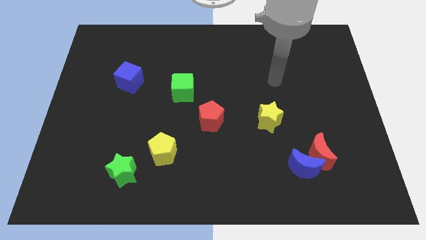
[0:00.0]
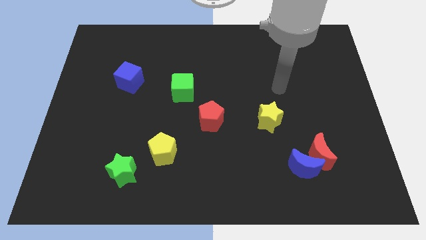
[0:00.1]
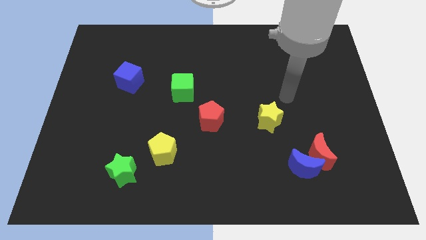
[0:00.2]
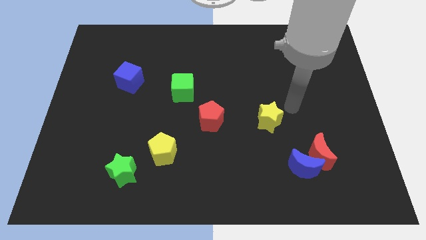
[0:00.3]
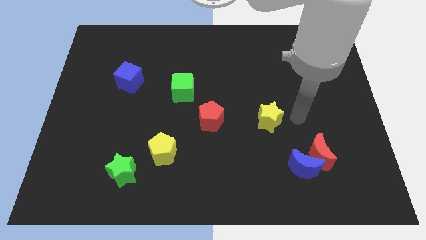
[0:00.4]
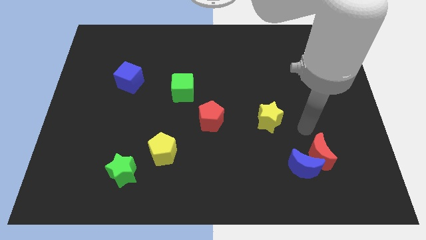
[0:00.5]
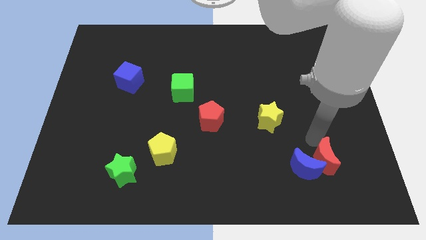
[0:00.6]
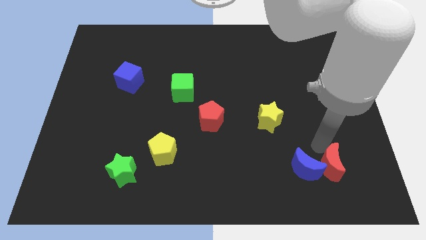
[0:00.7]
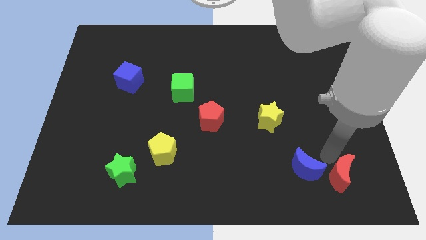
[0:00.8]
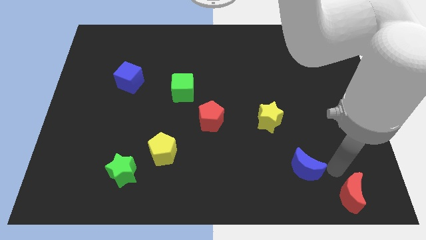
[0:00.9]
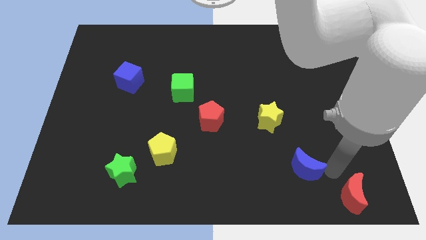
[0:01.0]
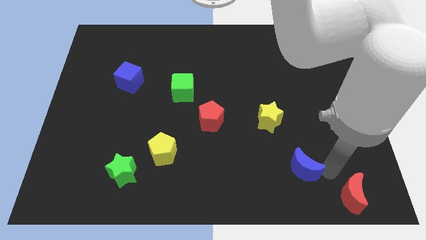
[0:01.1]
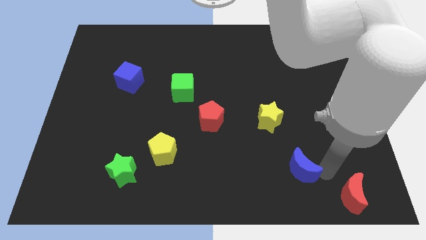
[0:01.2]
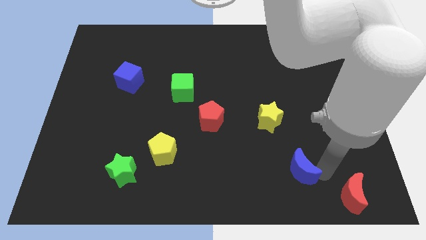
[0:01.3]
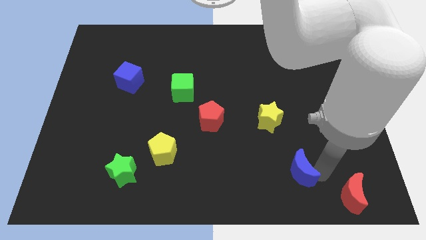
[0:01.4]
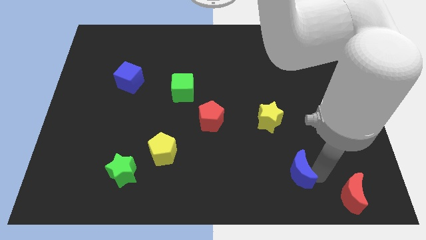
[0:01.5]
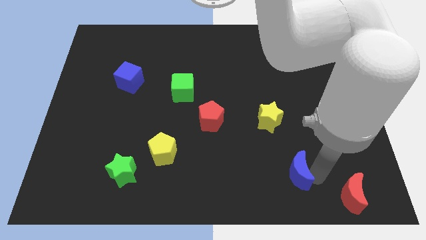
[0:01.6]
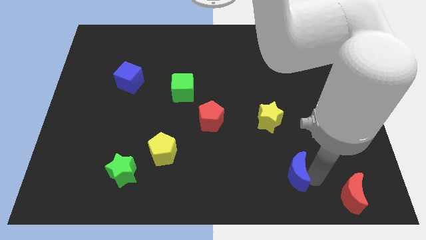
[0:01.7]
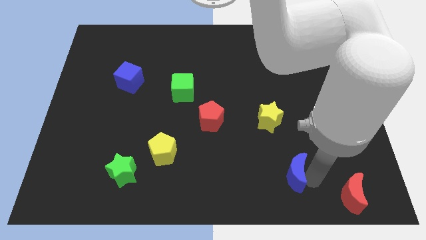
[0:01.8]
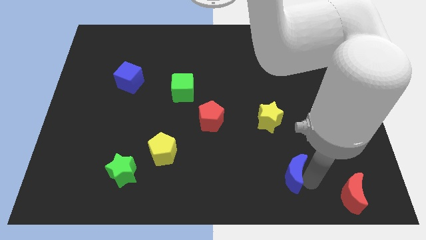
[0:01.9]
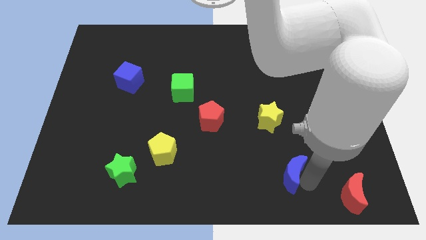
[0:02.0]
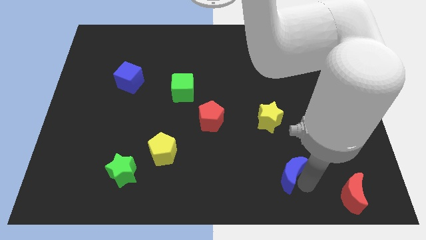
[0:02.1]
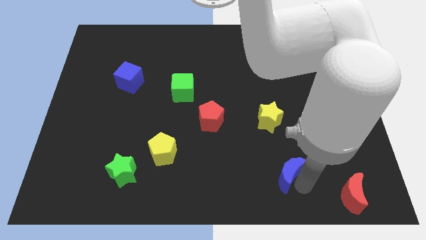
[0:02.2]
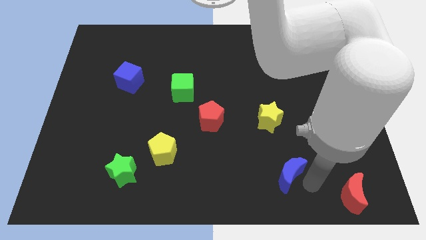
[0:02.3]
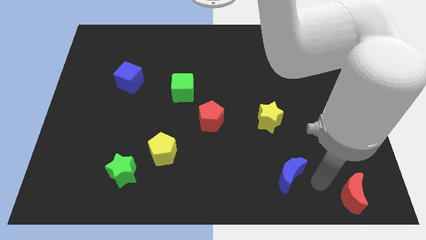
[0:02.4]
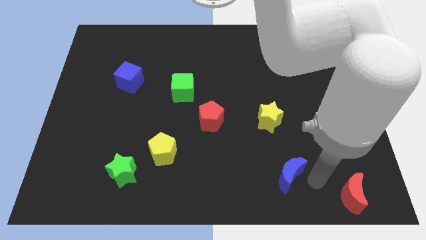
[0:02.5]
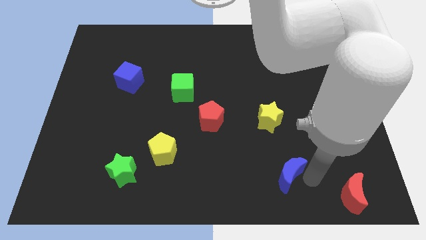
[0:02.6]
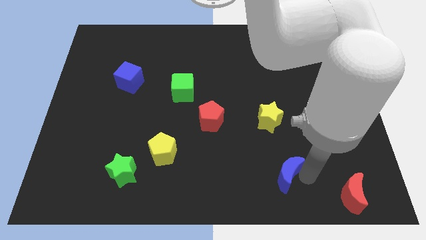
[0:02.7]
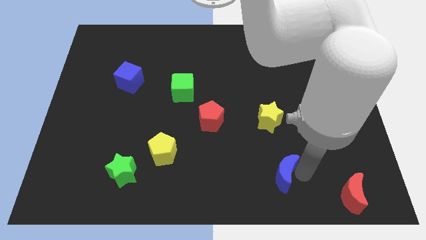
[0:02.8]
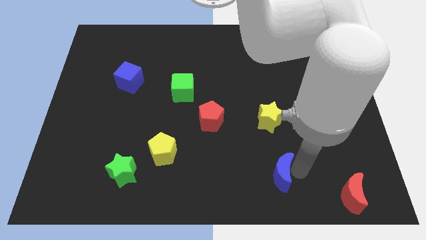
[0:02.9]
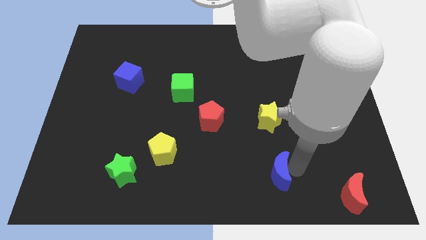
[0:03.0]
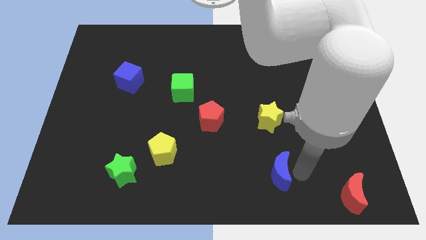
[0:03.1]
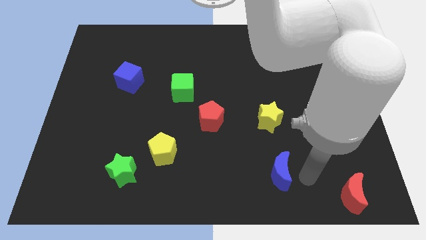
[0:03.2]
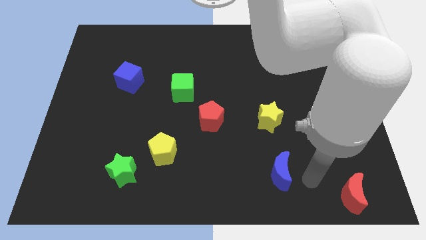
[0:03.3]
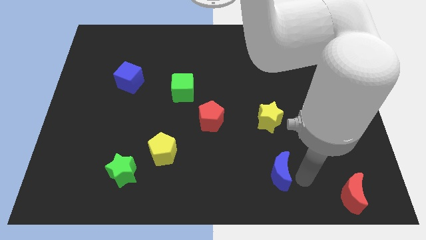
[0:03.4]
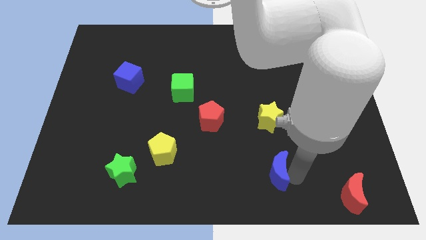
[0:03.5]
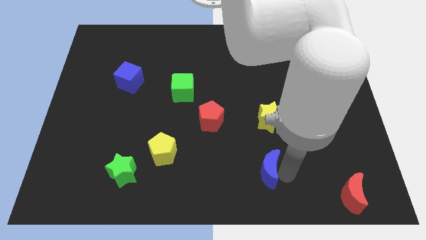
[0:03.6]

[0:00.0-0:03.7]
move the blue moon a bit to the left

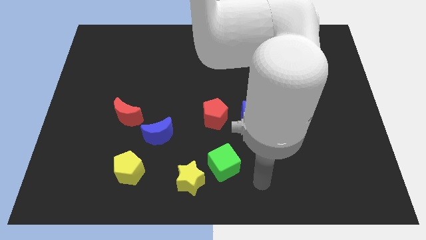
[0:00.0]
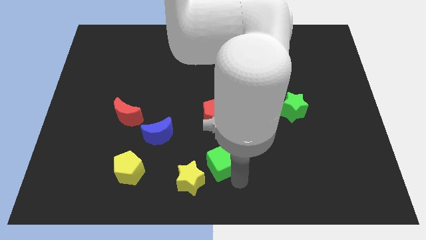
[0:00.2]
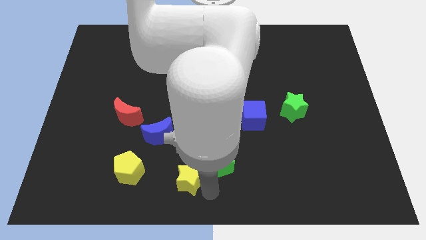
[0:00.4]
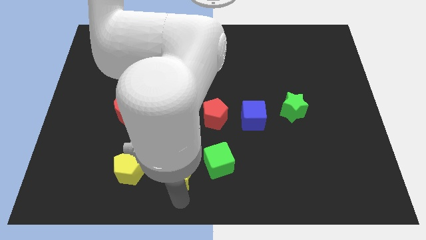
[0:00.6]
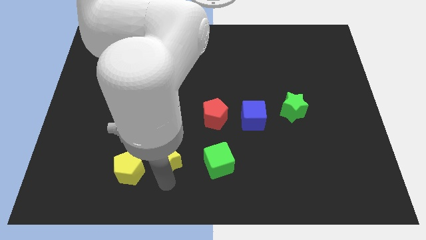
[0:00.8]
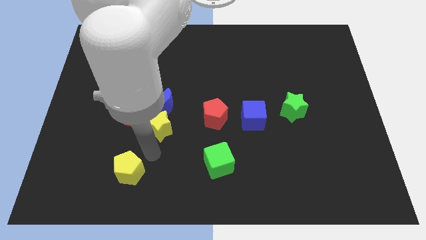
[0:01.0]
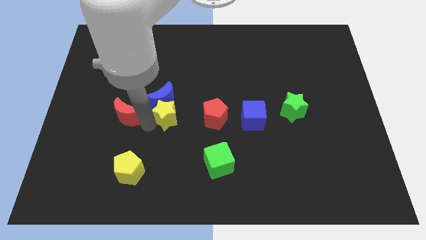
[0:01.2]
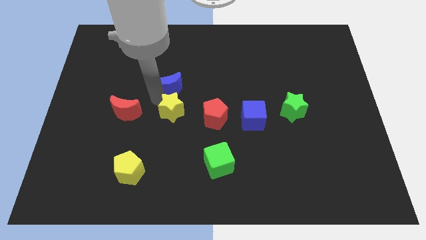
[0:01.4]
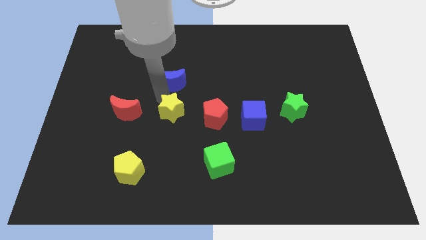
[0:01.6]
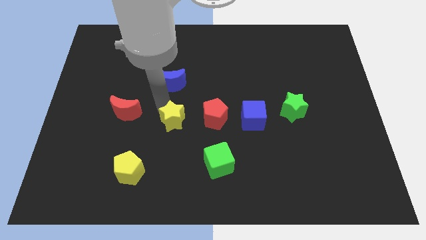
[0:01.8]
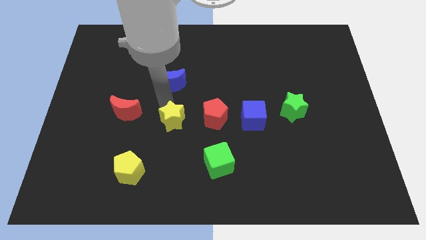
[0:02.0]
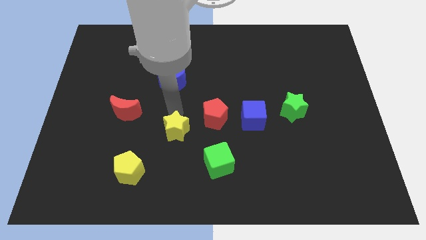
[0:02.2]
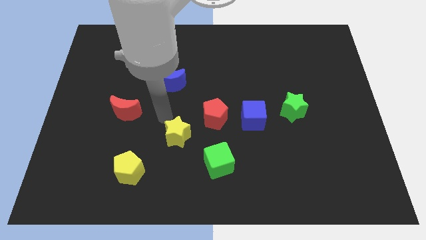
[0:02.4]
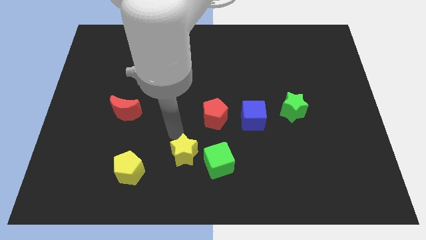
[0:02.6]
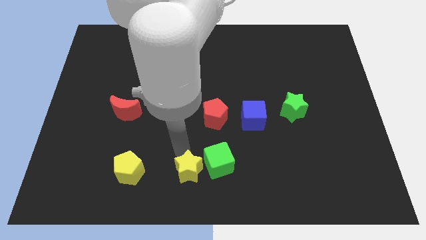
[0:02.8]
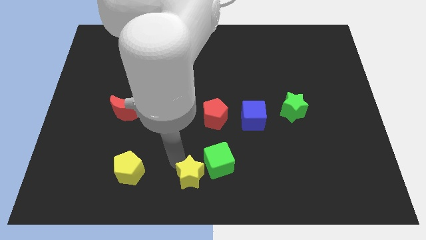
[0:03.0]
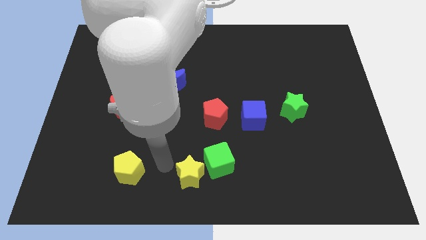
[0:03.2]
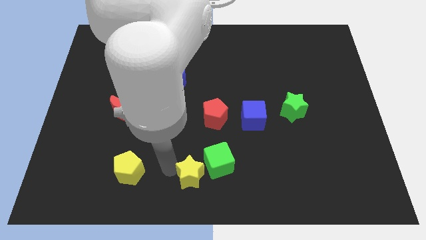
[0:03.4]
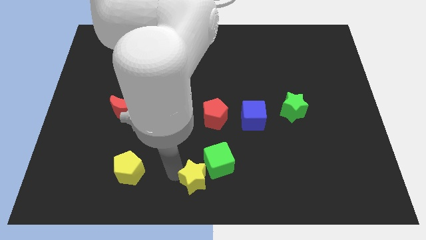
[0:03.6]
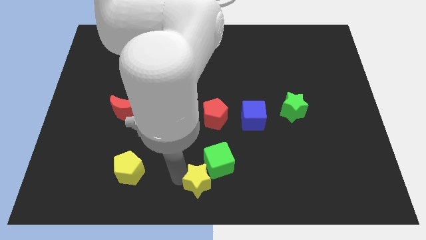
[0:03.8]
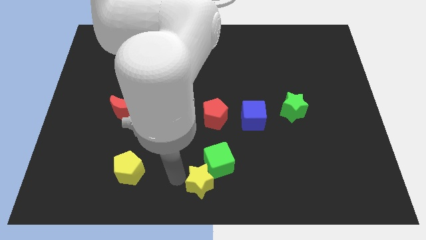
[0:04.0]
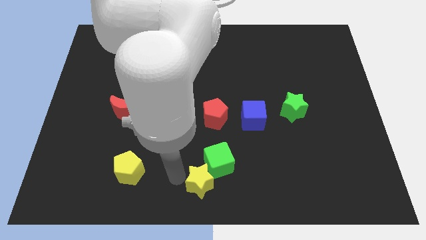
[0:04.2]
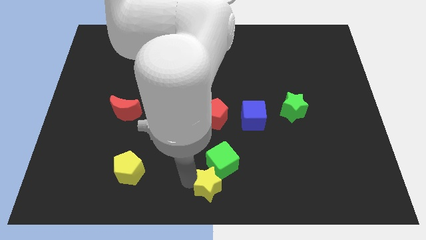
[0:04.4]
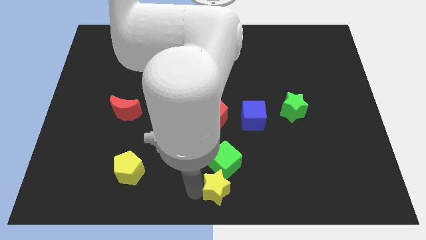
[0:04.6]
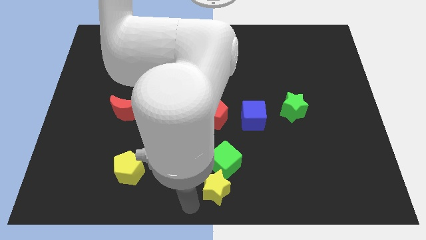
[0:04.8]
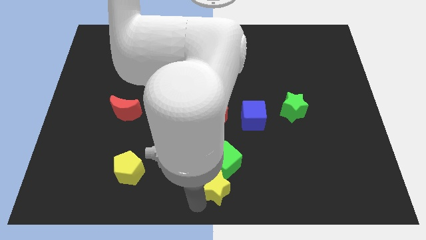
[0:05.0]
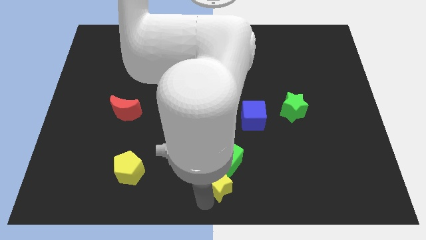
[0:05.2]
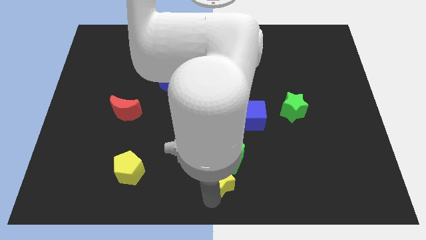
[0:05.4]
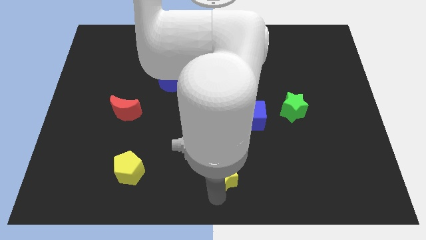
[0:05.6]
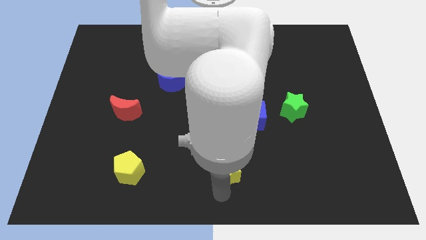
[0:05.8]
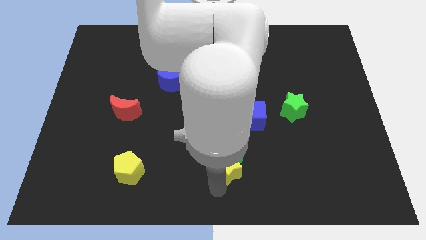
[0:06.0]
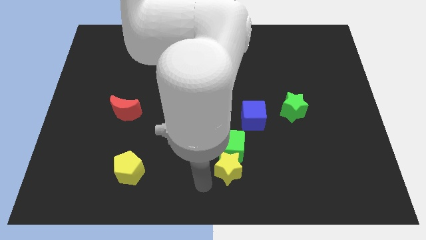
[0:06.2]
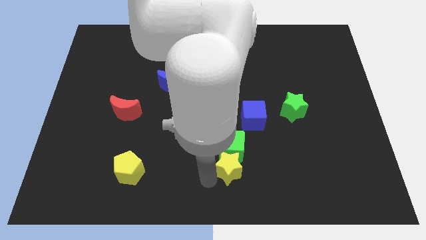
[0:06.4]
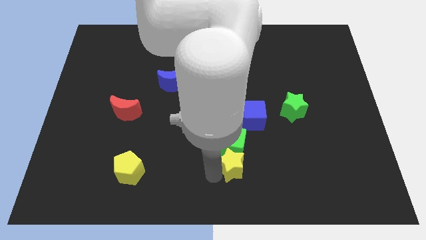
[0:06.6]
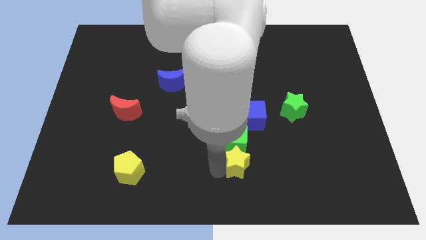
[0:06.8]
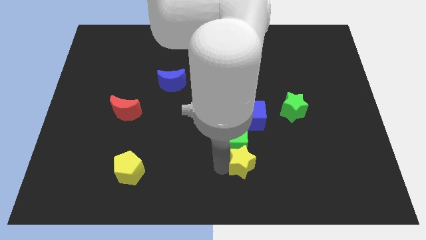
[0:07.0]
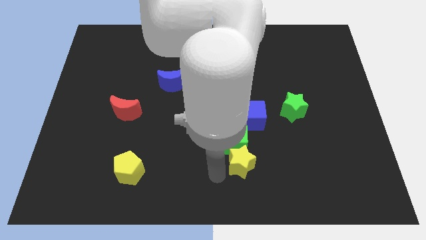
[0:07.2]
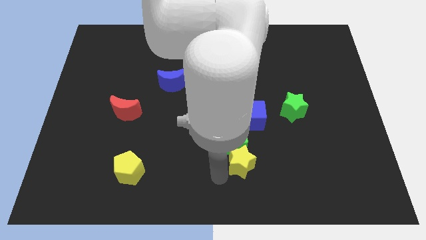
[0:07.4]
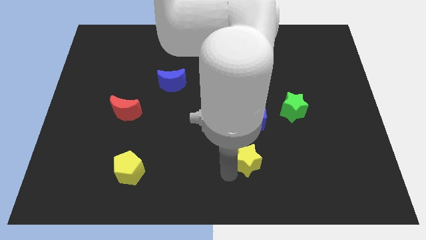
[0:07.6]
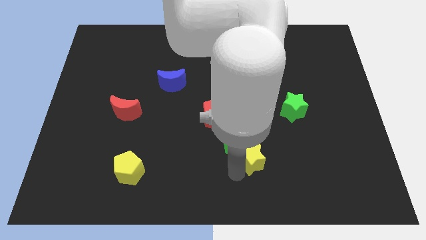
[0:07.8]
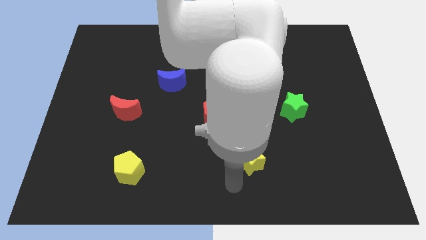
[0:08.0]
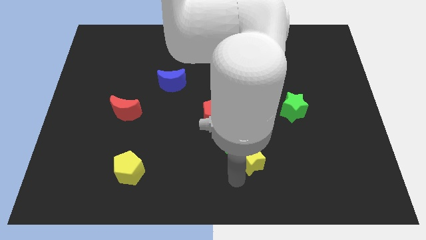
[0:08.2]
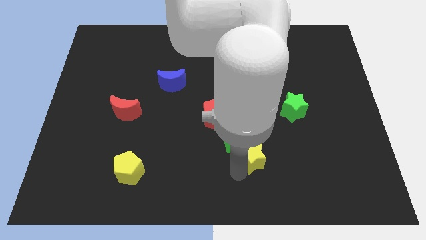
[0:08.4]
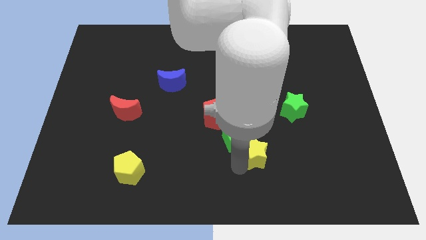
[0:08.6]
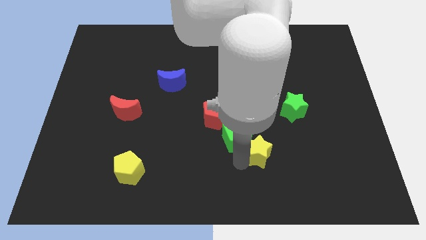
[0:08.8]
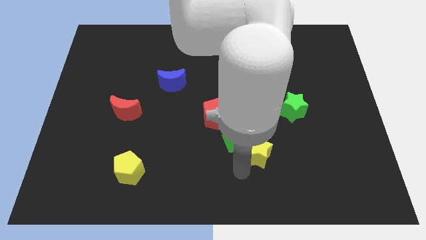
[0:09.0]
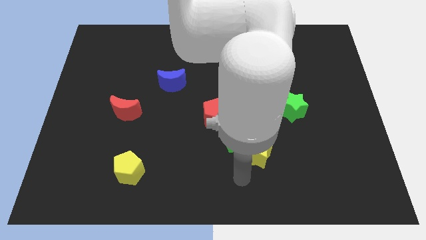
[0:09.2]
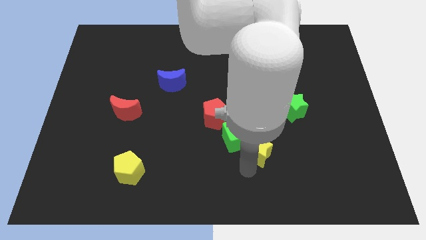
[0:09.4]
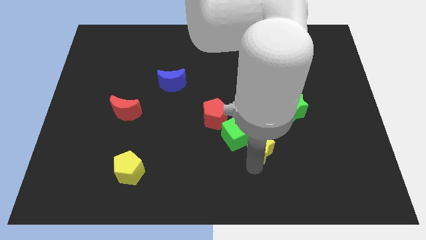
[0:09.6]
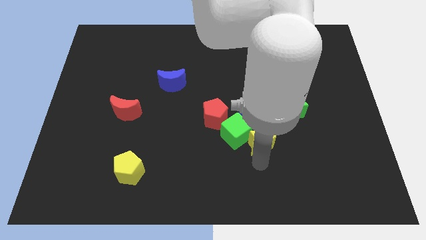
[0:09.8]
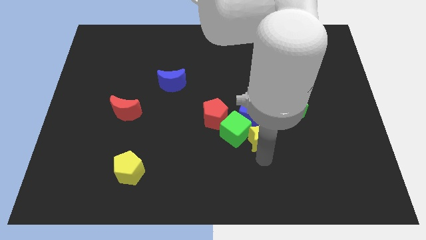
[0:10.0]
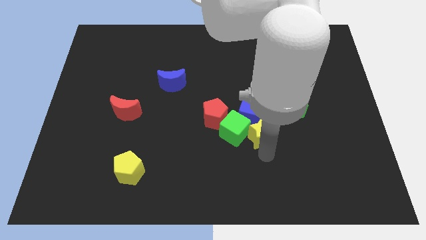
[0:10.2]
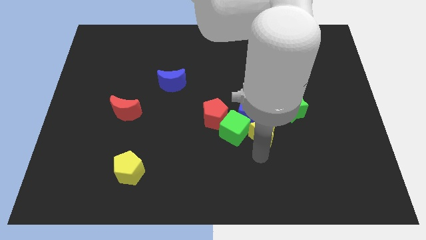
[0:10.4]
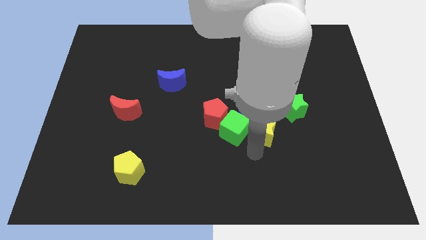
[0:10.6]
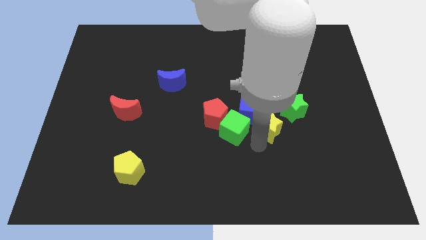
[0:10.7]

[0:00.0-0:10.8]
move the yellow star upwards and then to the right
